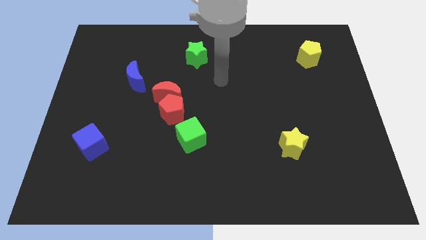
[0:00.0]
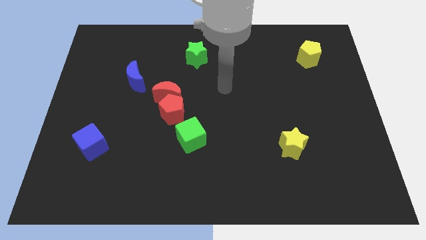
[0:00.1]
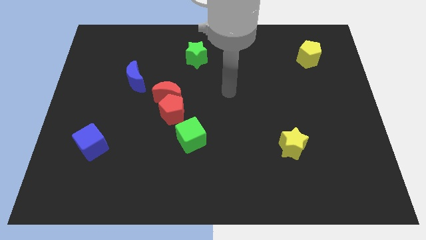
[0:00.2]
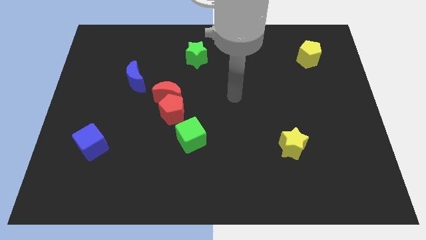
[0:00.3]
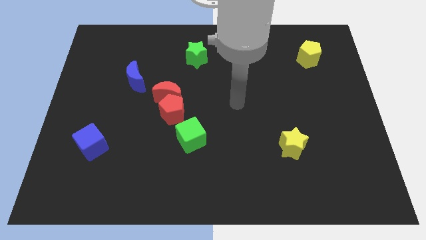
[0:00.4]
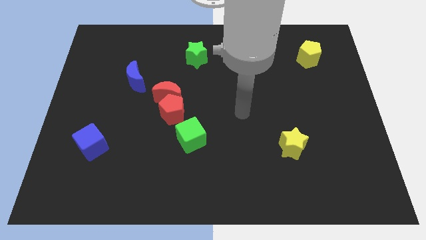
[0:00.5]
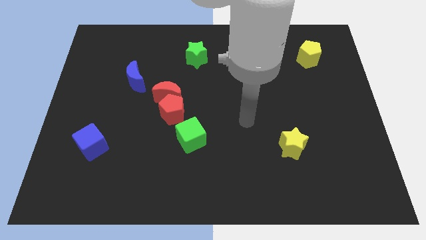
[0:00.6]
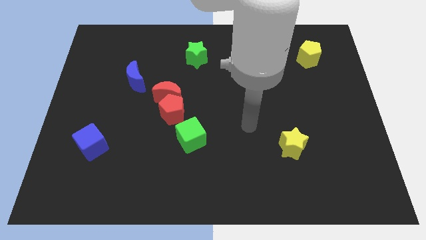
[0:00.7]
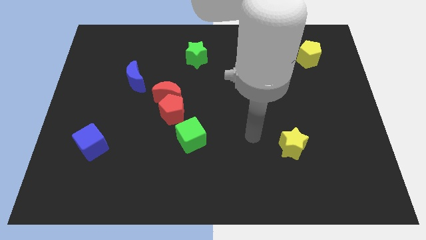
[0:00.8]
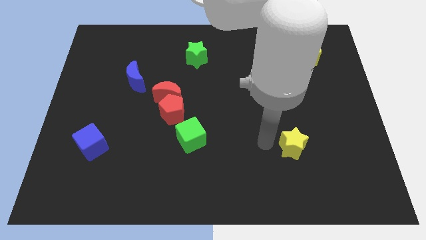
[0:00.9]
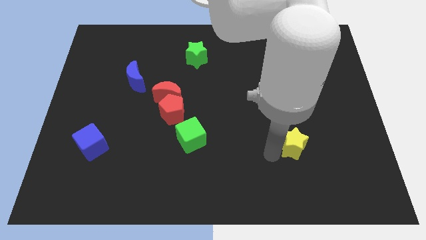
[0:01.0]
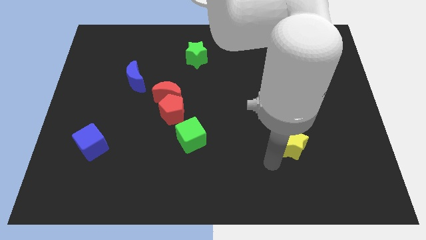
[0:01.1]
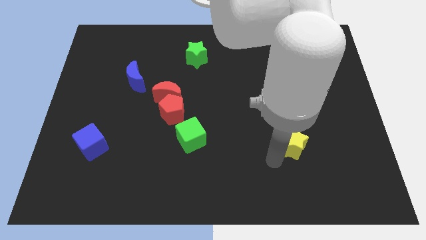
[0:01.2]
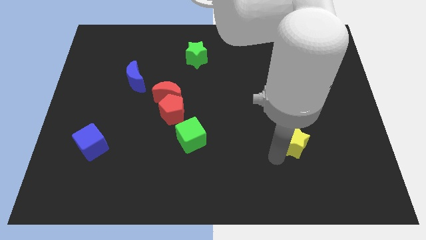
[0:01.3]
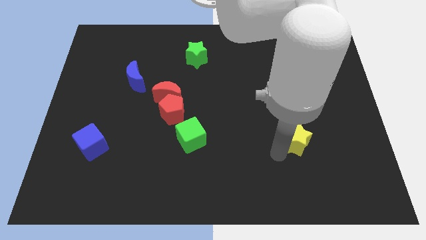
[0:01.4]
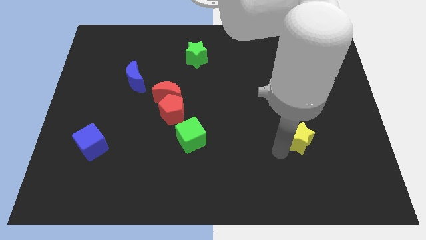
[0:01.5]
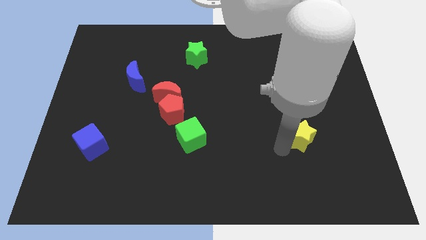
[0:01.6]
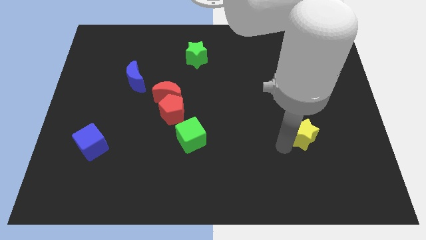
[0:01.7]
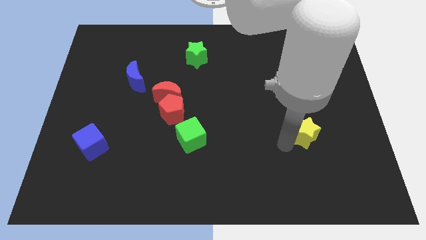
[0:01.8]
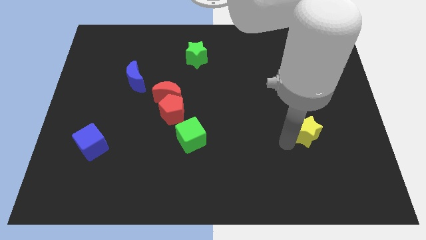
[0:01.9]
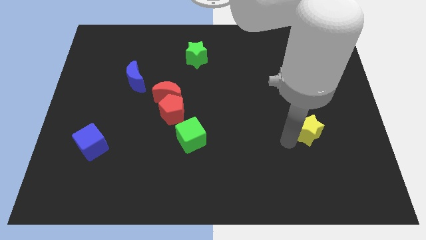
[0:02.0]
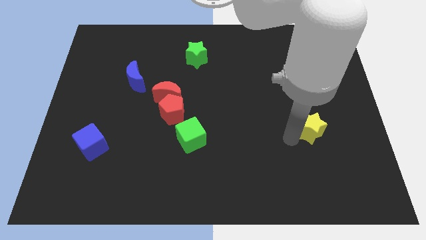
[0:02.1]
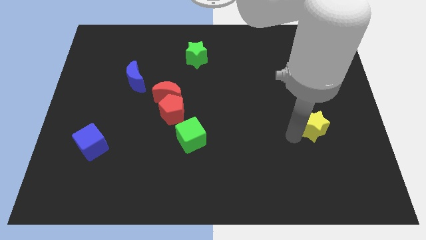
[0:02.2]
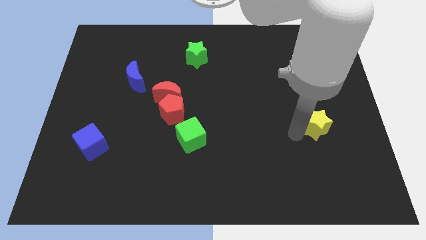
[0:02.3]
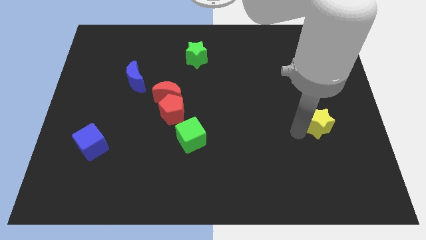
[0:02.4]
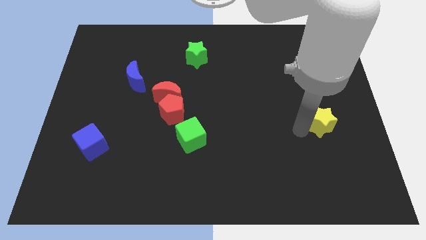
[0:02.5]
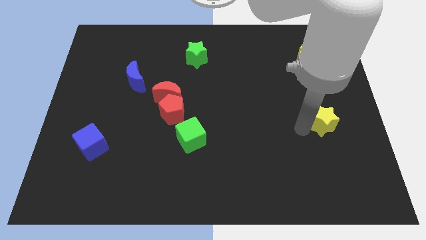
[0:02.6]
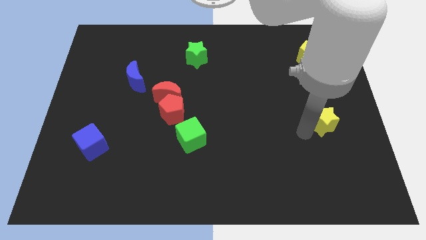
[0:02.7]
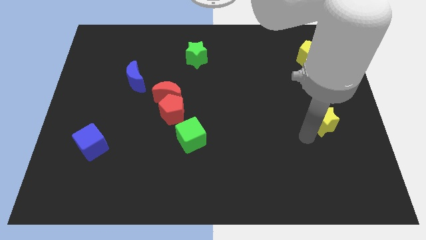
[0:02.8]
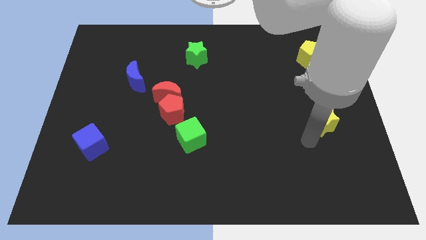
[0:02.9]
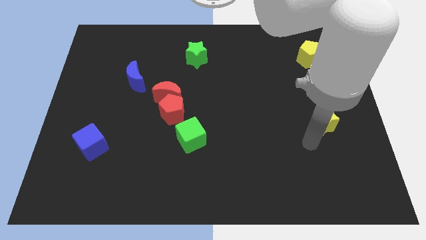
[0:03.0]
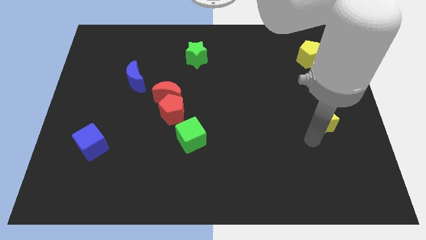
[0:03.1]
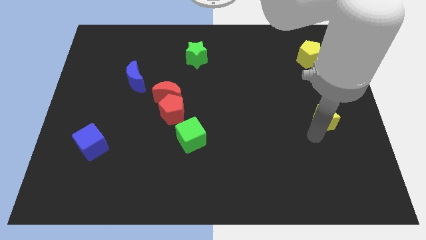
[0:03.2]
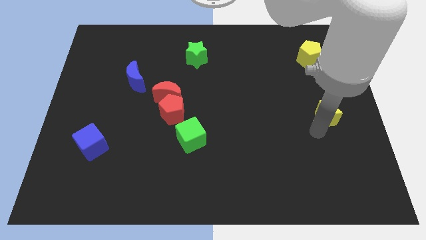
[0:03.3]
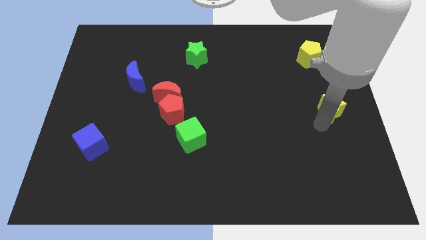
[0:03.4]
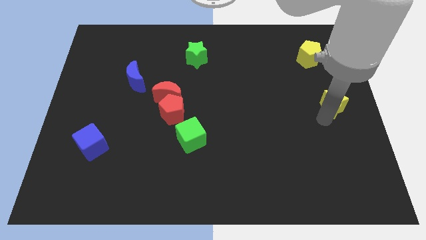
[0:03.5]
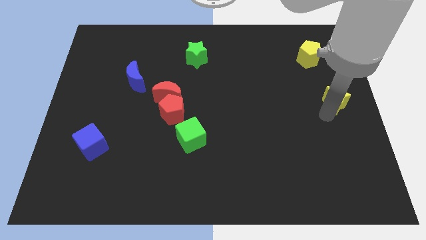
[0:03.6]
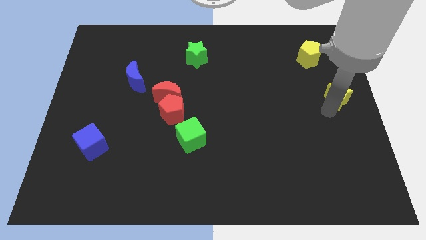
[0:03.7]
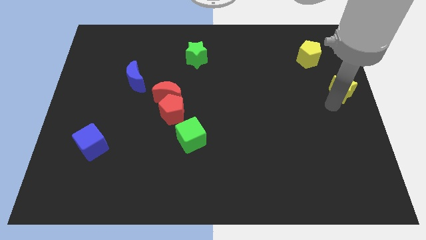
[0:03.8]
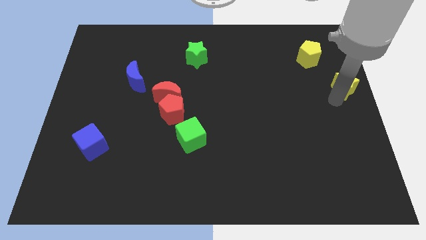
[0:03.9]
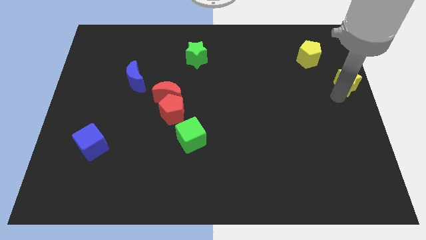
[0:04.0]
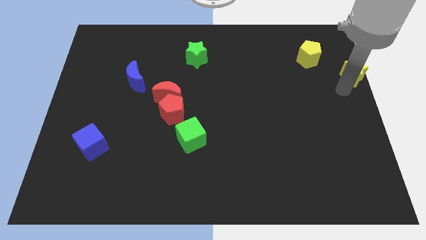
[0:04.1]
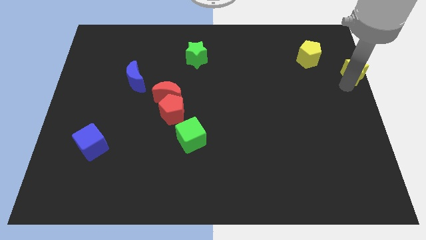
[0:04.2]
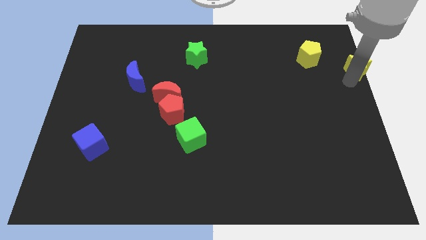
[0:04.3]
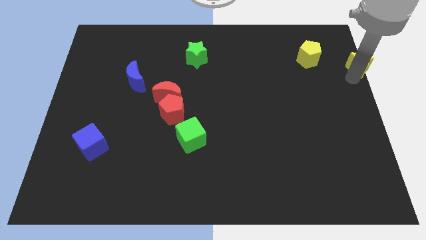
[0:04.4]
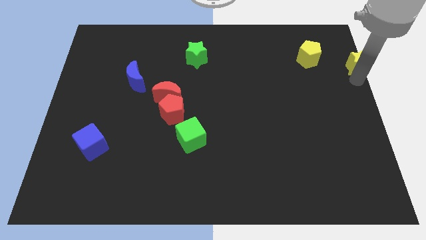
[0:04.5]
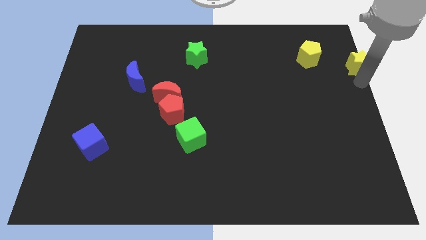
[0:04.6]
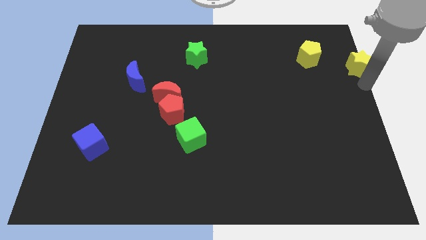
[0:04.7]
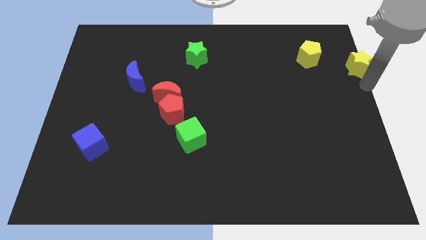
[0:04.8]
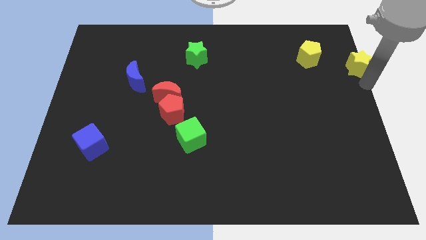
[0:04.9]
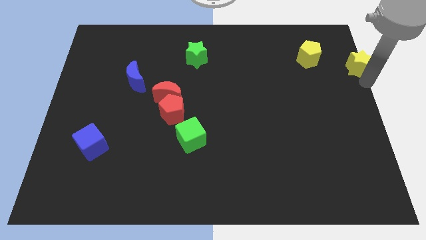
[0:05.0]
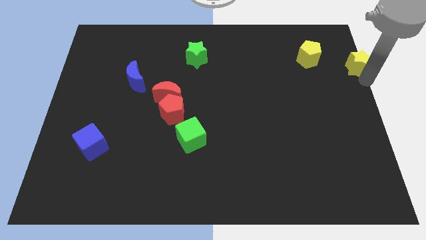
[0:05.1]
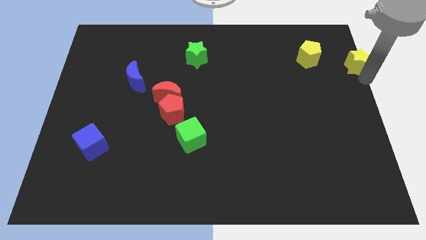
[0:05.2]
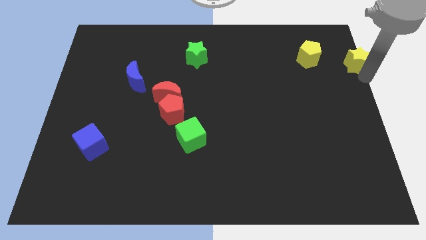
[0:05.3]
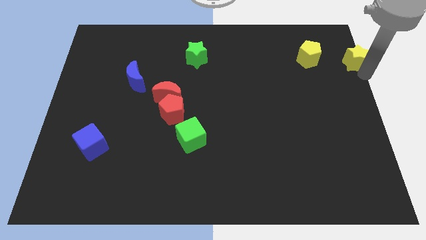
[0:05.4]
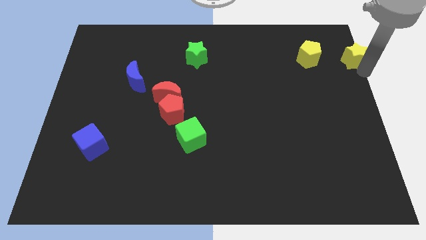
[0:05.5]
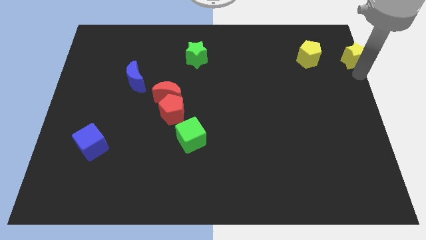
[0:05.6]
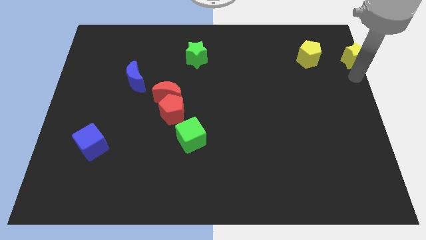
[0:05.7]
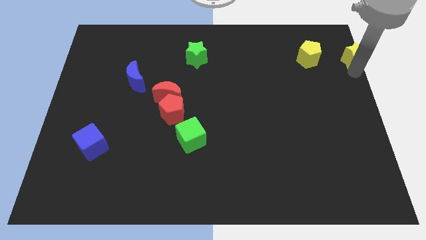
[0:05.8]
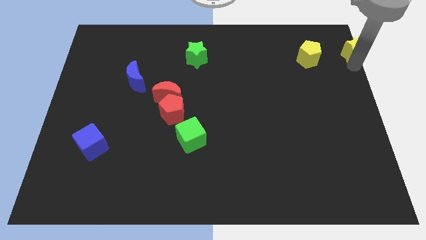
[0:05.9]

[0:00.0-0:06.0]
slide the yellow star to the top right
